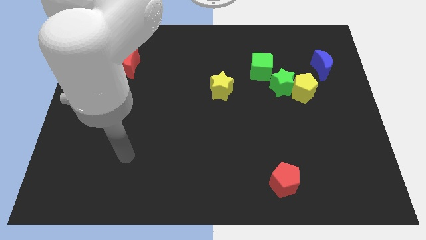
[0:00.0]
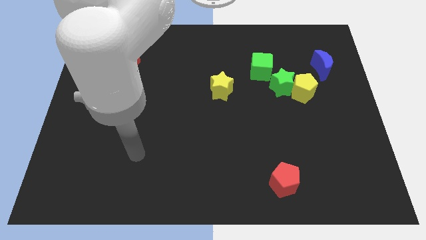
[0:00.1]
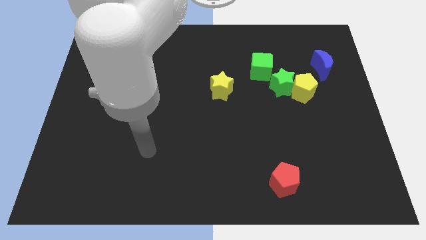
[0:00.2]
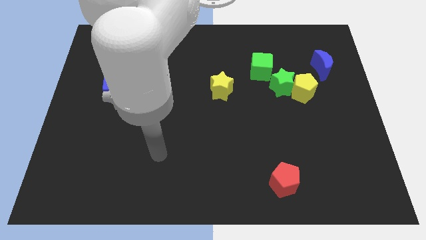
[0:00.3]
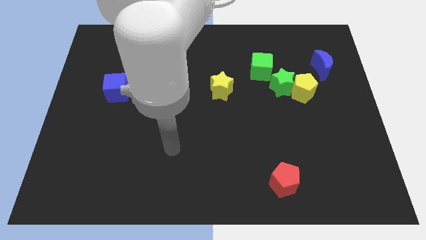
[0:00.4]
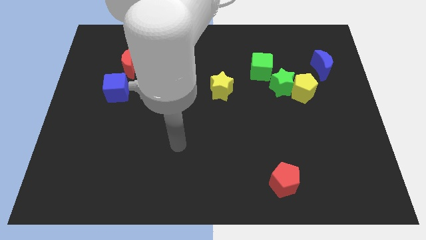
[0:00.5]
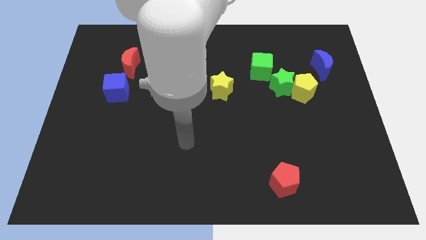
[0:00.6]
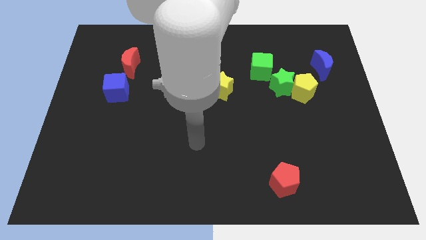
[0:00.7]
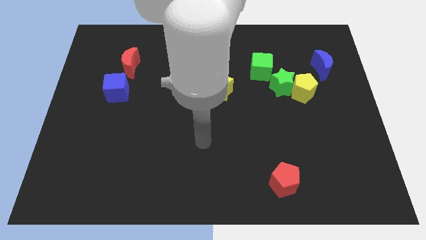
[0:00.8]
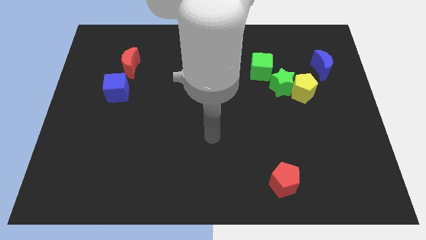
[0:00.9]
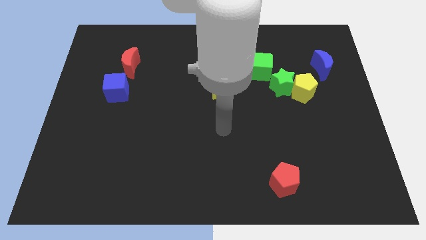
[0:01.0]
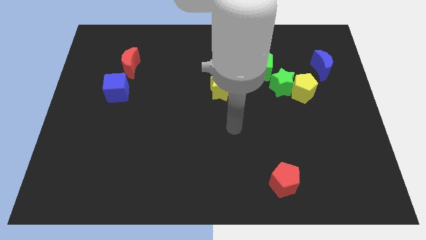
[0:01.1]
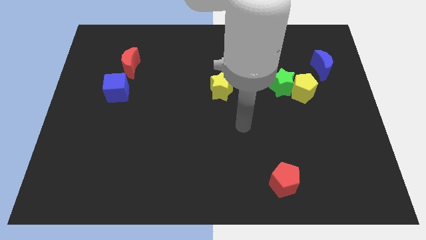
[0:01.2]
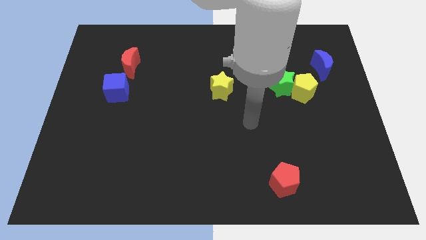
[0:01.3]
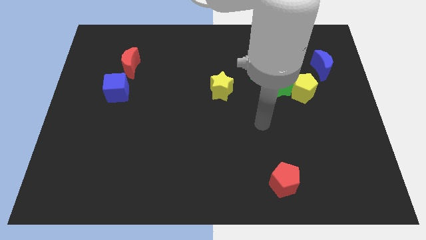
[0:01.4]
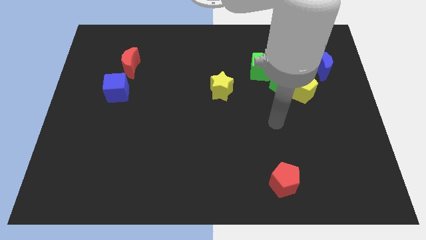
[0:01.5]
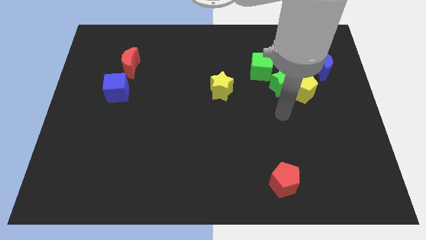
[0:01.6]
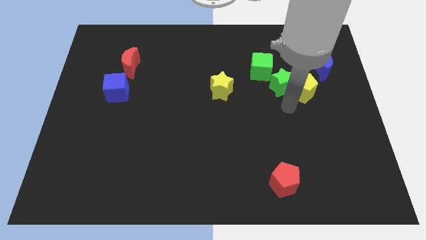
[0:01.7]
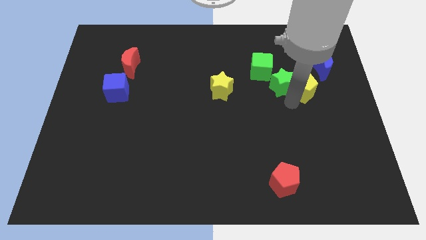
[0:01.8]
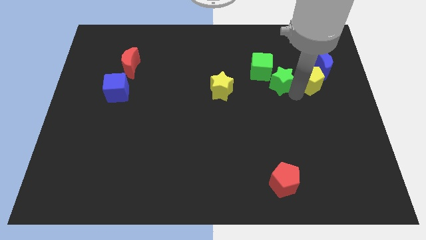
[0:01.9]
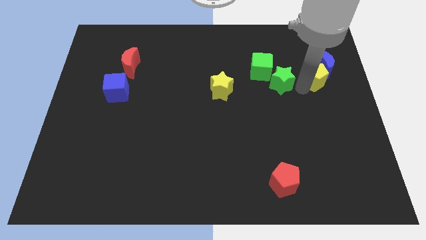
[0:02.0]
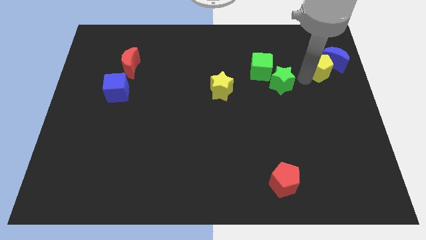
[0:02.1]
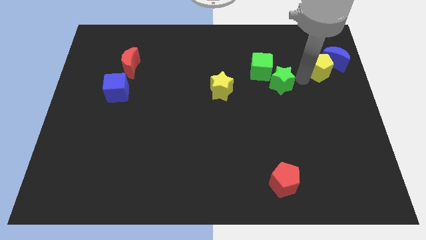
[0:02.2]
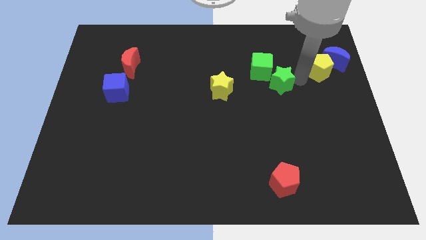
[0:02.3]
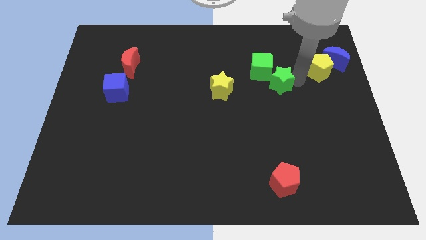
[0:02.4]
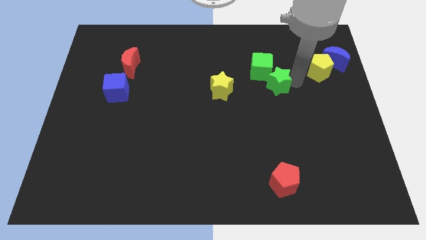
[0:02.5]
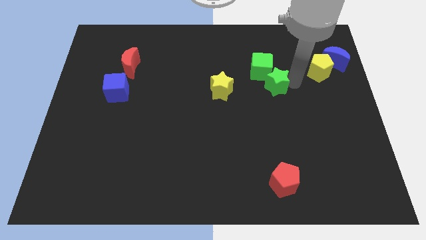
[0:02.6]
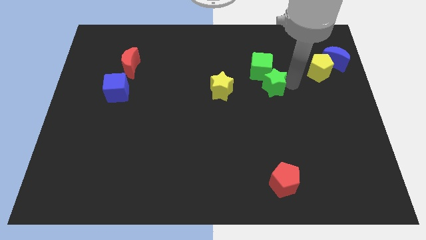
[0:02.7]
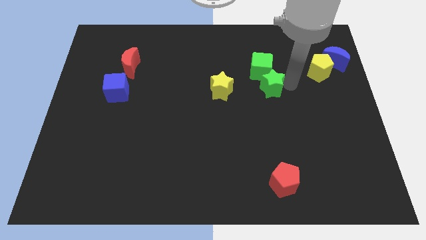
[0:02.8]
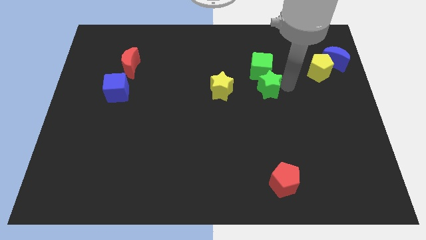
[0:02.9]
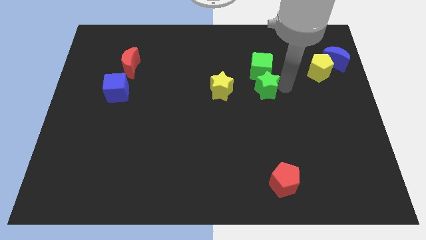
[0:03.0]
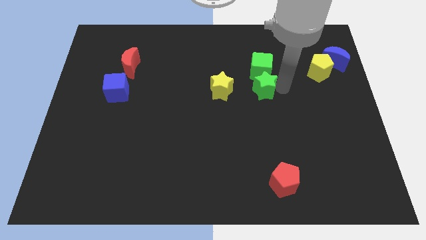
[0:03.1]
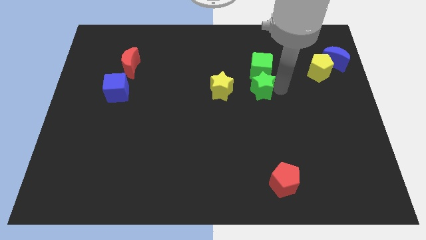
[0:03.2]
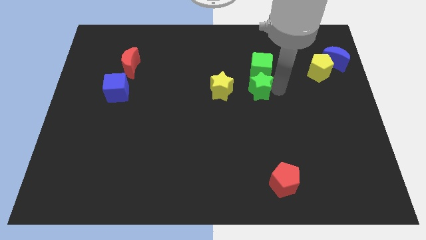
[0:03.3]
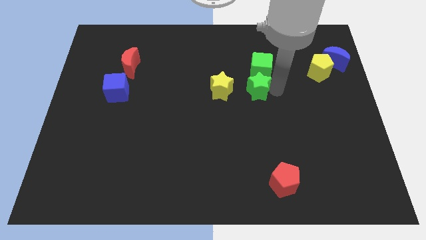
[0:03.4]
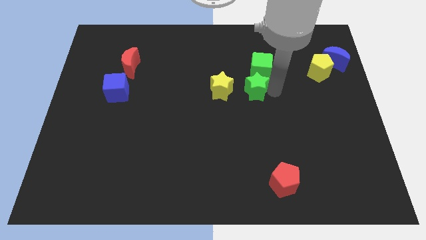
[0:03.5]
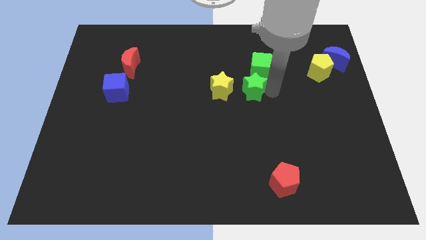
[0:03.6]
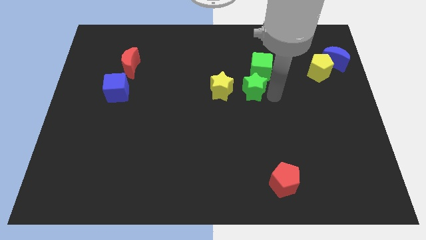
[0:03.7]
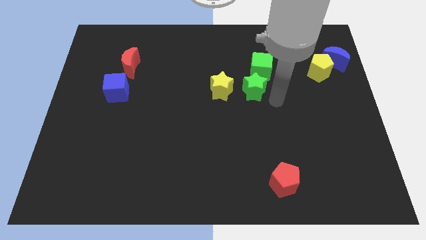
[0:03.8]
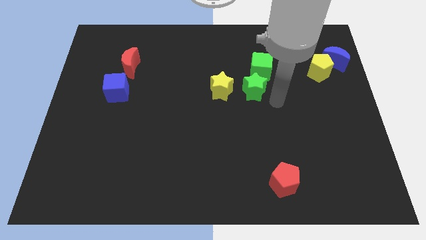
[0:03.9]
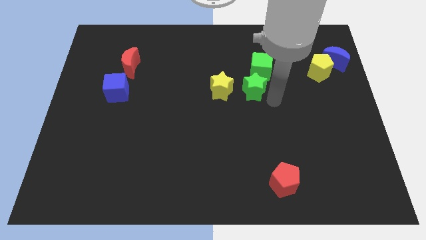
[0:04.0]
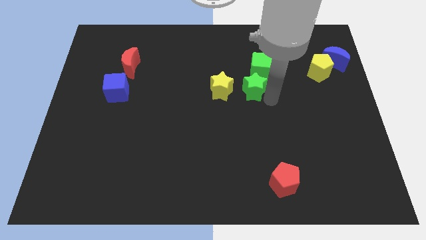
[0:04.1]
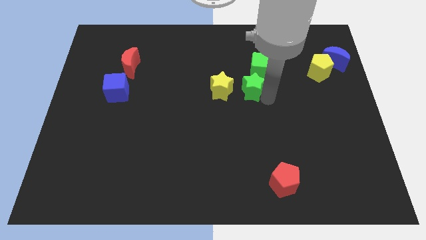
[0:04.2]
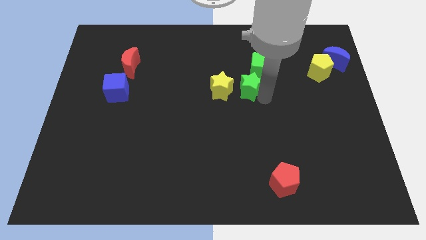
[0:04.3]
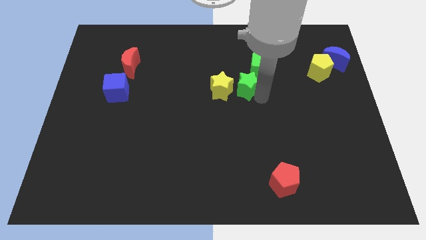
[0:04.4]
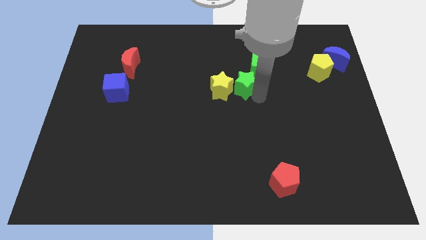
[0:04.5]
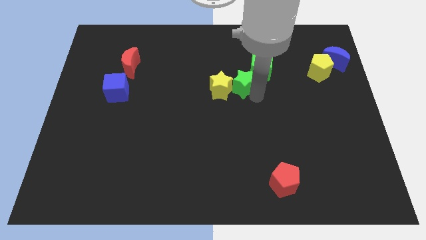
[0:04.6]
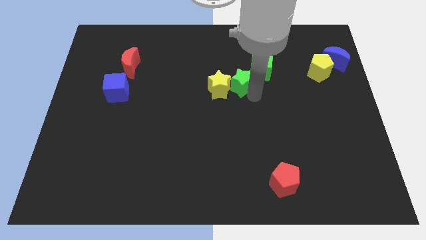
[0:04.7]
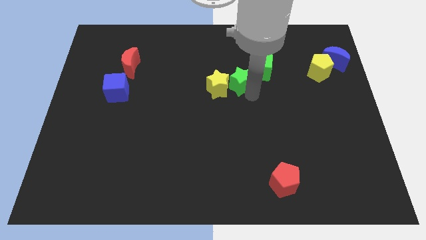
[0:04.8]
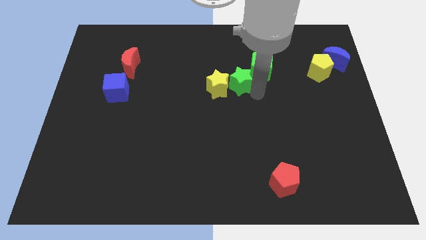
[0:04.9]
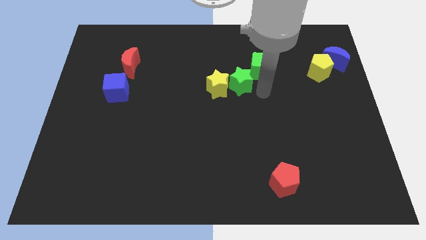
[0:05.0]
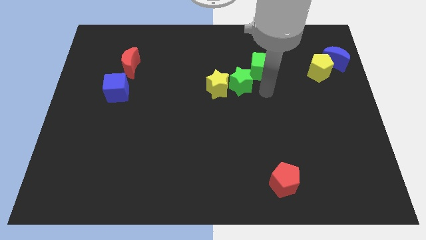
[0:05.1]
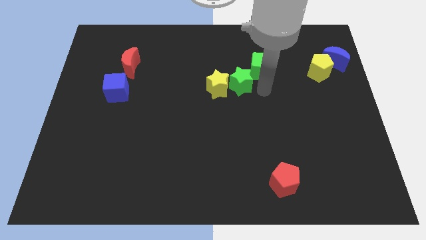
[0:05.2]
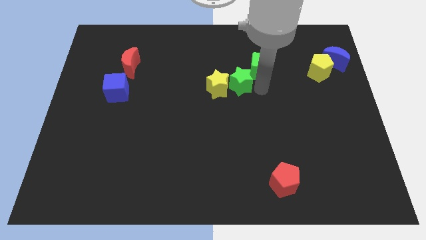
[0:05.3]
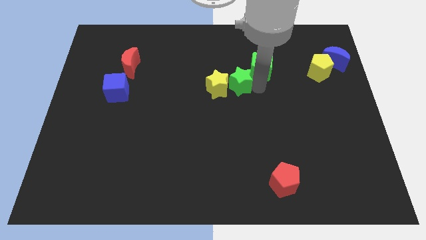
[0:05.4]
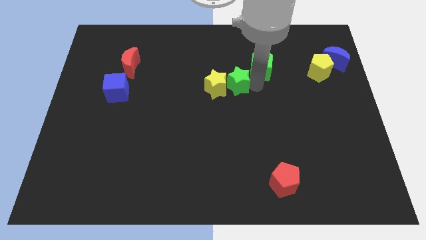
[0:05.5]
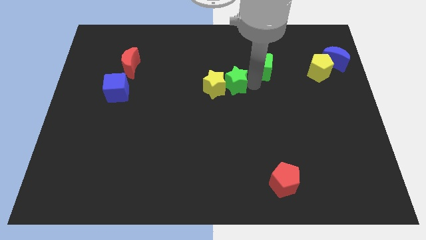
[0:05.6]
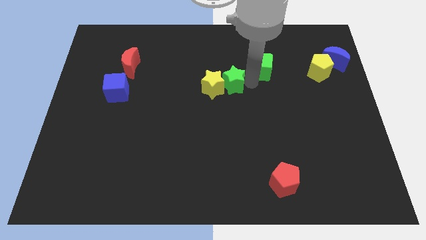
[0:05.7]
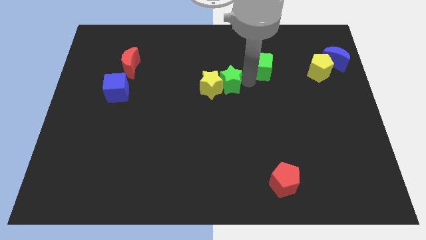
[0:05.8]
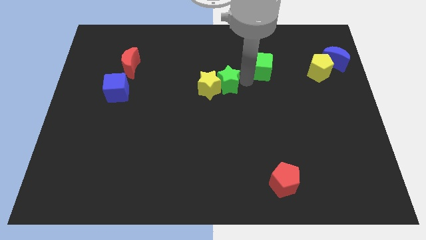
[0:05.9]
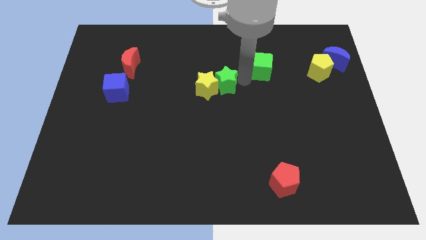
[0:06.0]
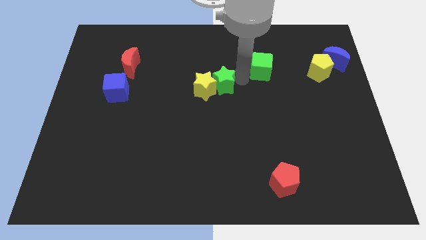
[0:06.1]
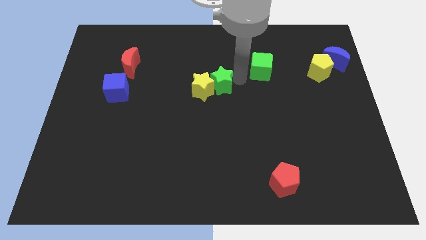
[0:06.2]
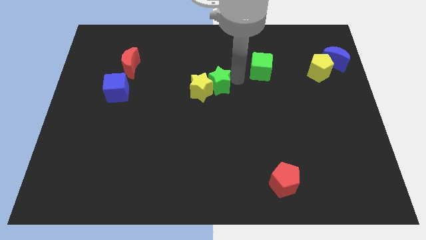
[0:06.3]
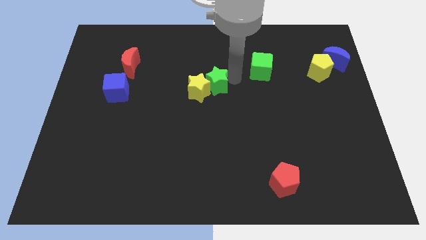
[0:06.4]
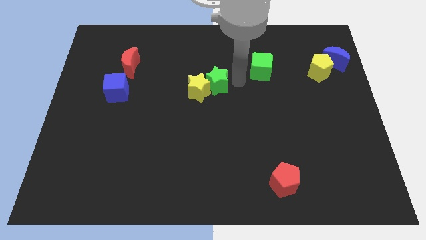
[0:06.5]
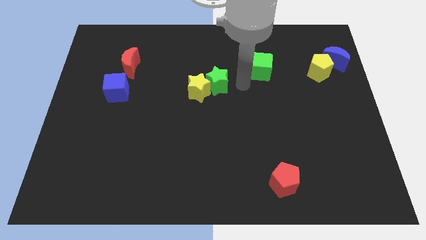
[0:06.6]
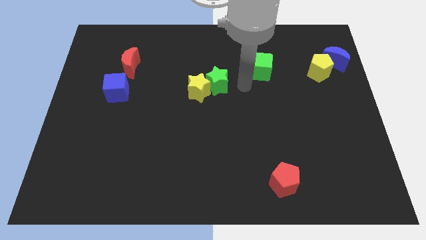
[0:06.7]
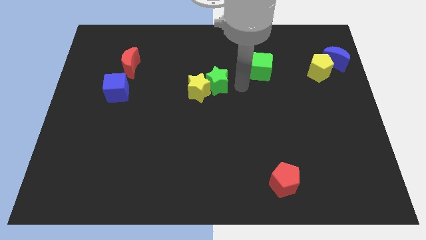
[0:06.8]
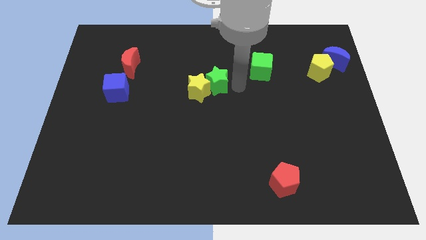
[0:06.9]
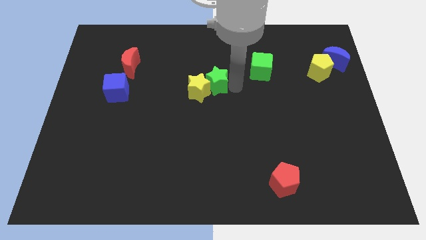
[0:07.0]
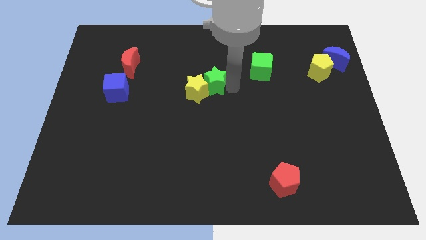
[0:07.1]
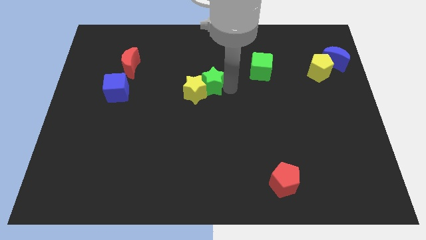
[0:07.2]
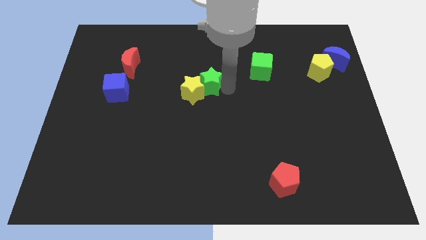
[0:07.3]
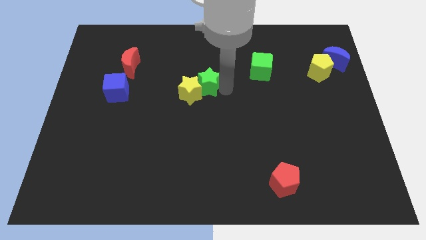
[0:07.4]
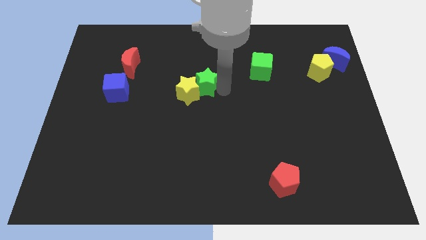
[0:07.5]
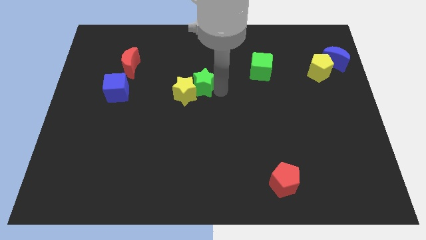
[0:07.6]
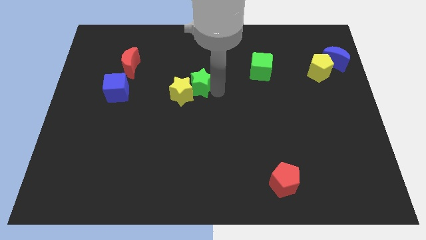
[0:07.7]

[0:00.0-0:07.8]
slide the green star left

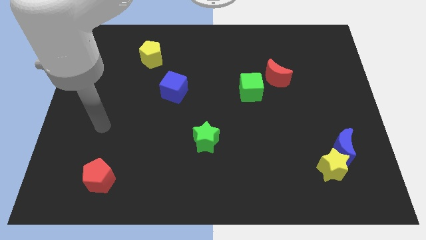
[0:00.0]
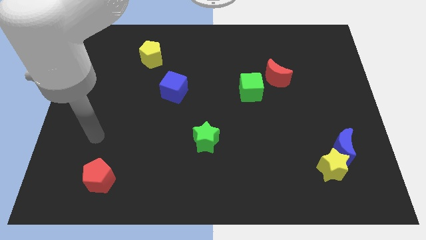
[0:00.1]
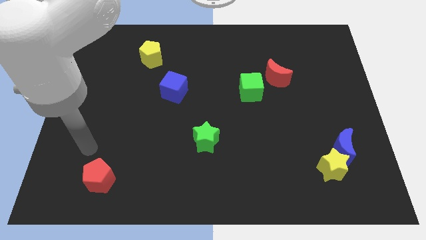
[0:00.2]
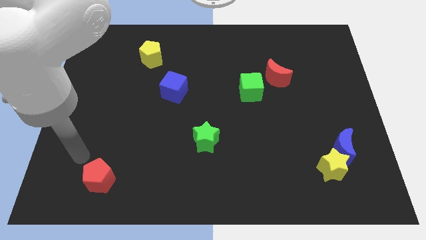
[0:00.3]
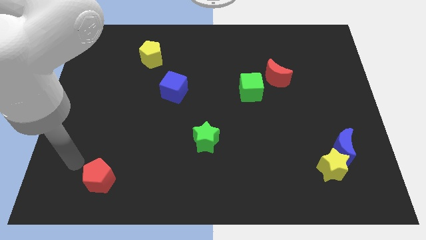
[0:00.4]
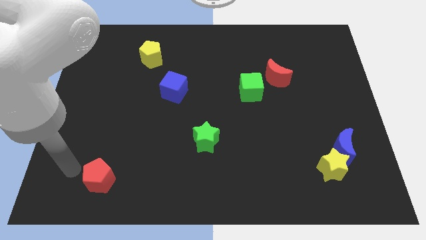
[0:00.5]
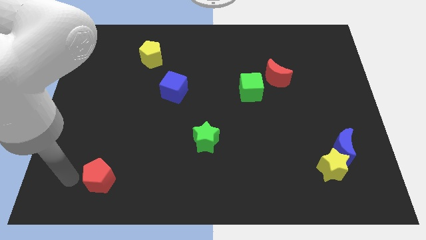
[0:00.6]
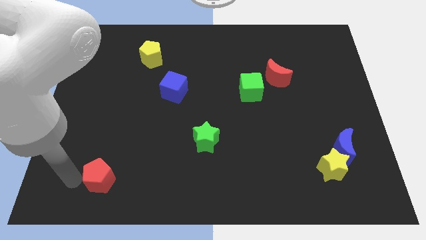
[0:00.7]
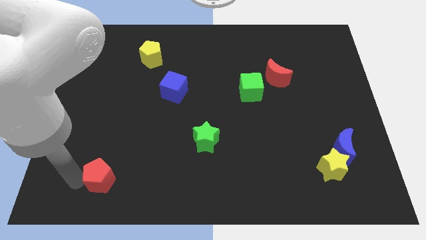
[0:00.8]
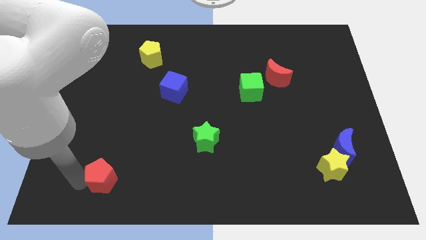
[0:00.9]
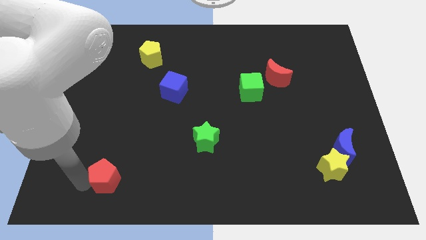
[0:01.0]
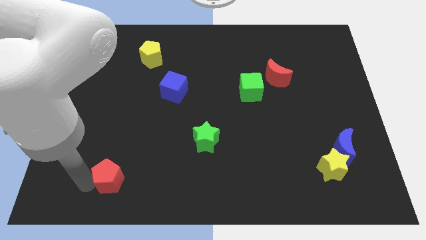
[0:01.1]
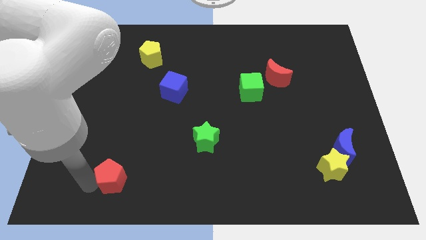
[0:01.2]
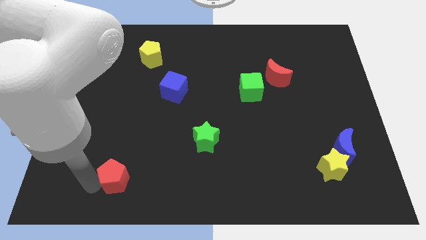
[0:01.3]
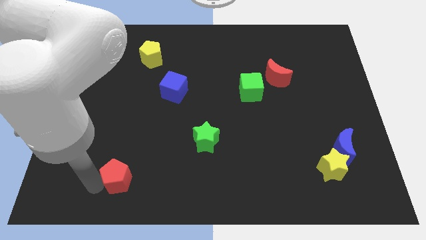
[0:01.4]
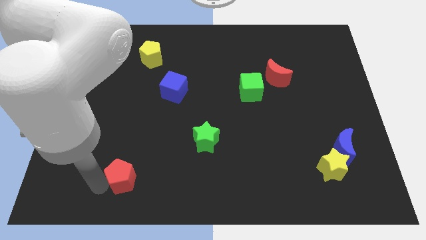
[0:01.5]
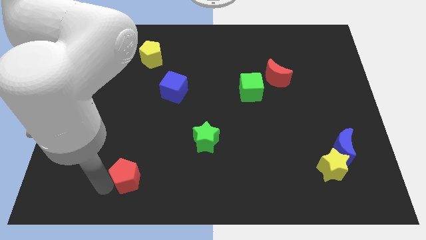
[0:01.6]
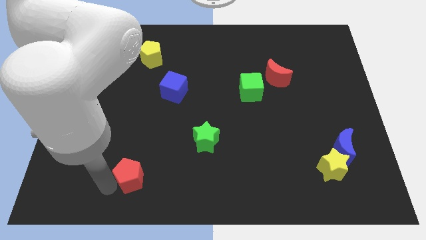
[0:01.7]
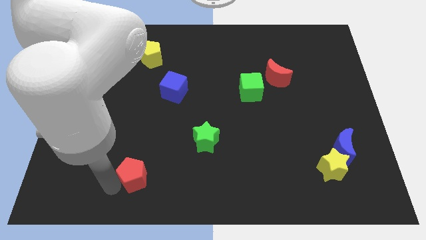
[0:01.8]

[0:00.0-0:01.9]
slightly push the red pentagon to the right
